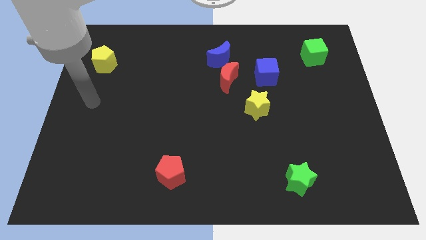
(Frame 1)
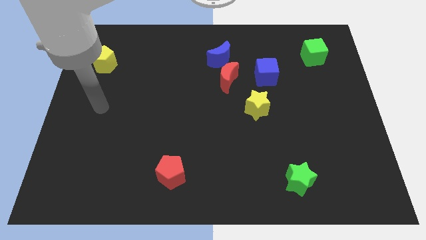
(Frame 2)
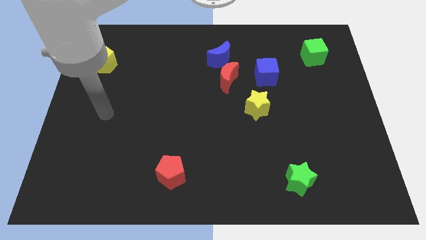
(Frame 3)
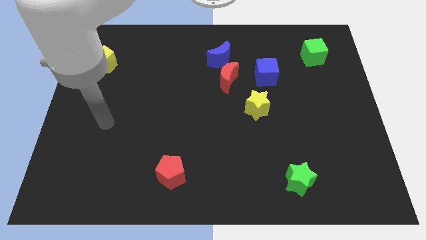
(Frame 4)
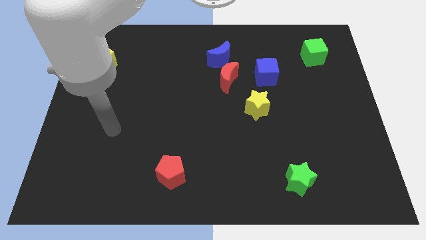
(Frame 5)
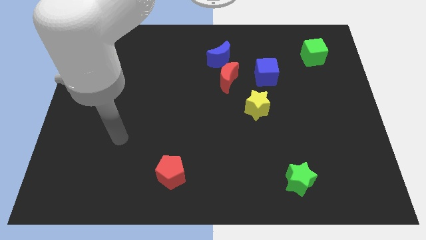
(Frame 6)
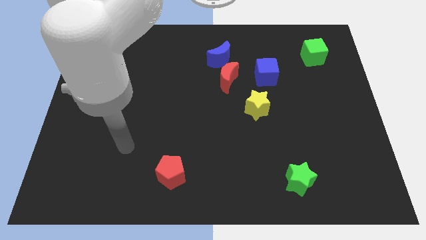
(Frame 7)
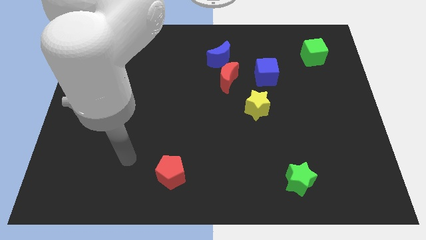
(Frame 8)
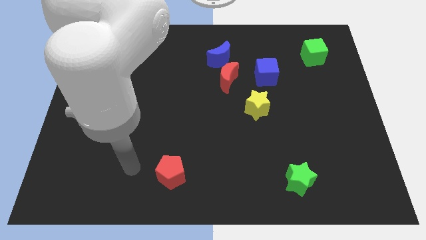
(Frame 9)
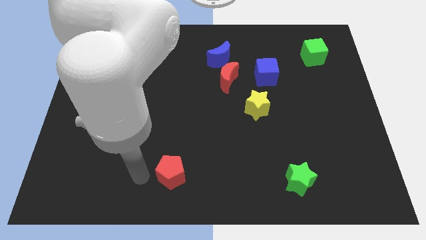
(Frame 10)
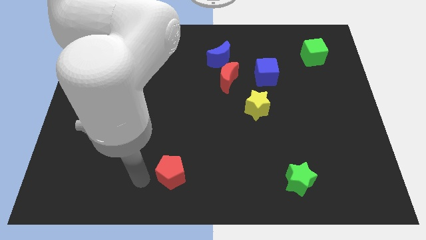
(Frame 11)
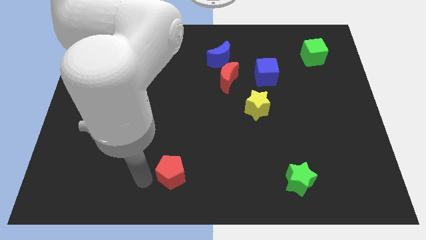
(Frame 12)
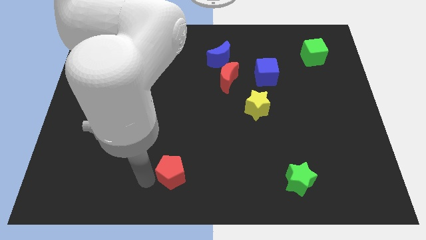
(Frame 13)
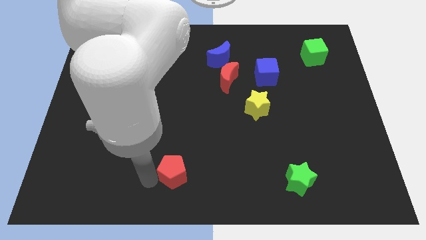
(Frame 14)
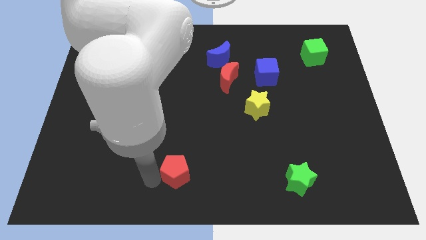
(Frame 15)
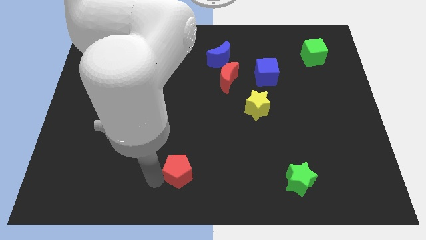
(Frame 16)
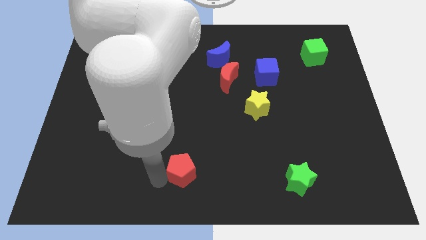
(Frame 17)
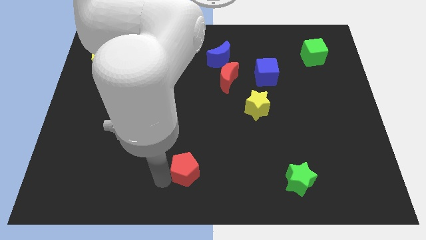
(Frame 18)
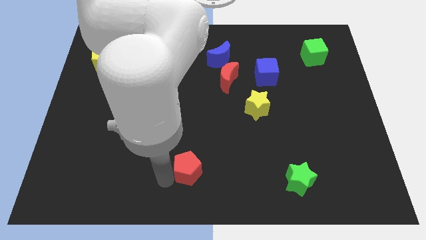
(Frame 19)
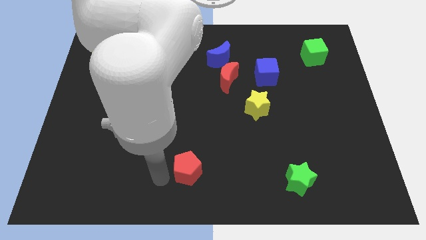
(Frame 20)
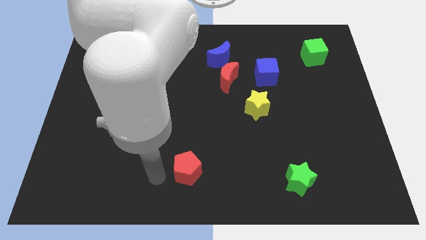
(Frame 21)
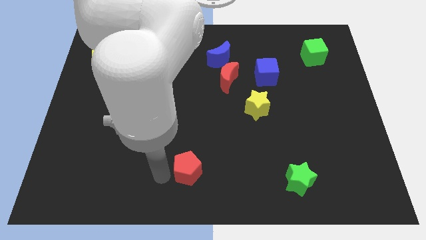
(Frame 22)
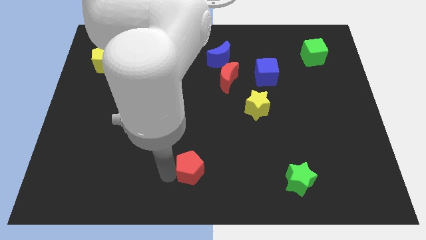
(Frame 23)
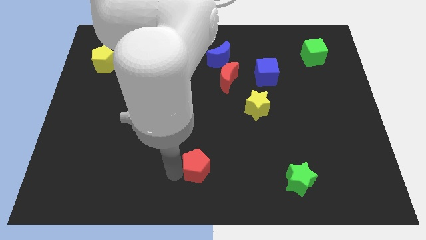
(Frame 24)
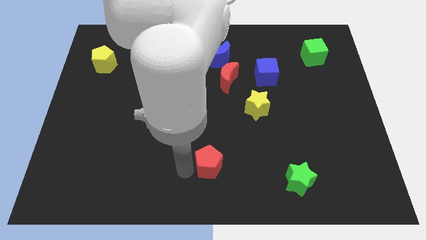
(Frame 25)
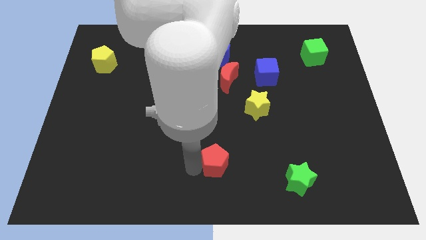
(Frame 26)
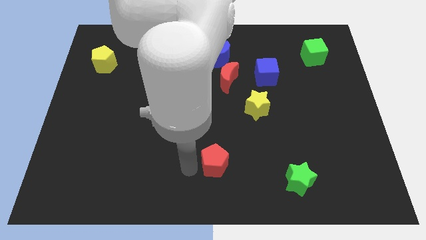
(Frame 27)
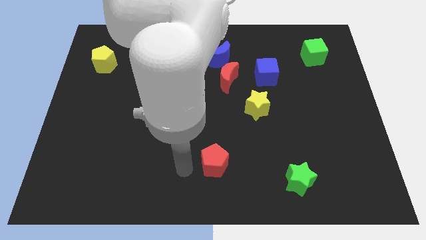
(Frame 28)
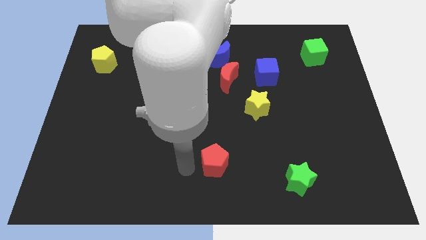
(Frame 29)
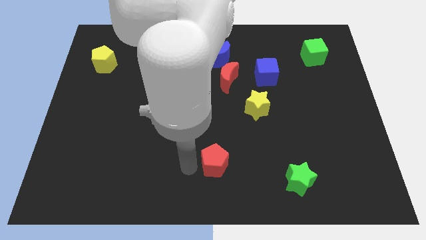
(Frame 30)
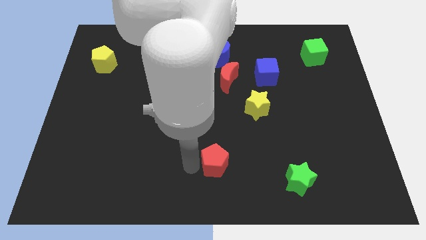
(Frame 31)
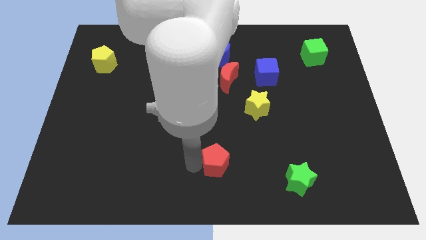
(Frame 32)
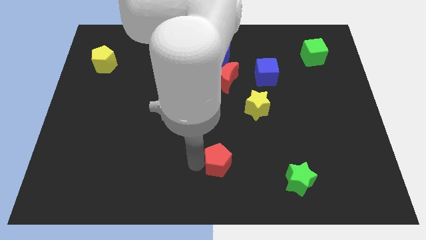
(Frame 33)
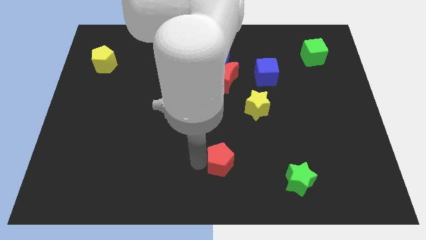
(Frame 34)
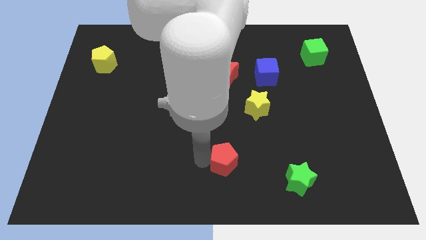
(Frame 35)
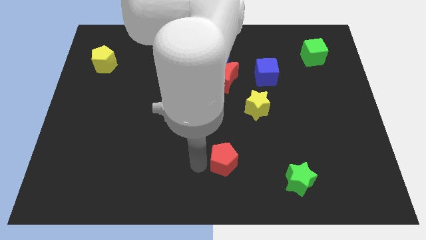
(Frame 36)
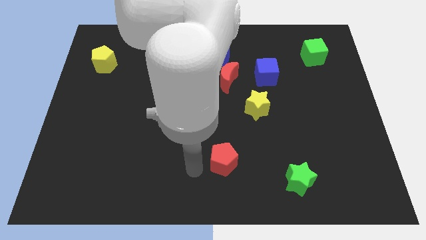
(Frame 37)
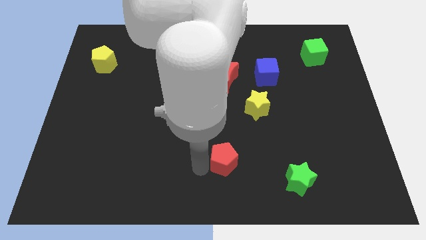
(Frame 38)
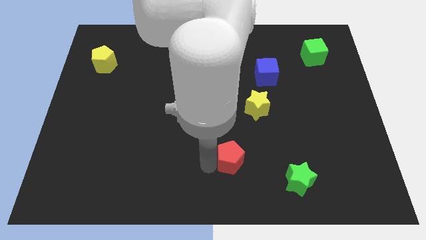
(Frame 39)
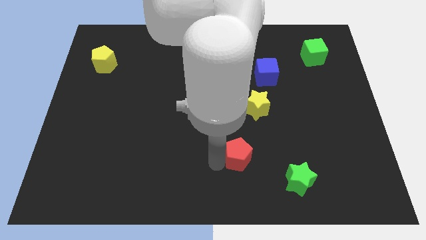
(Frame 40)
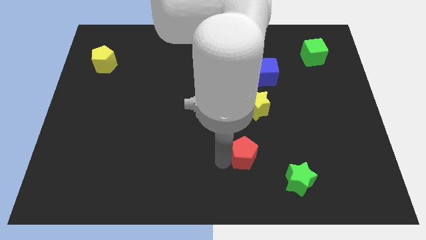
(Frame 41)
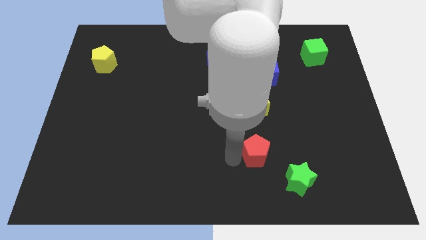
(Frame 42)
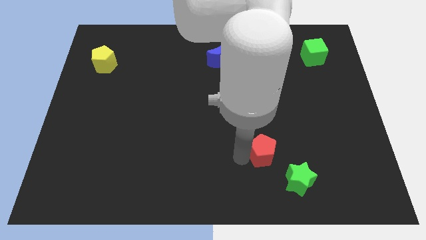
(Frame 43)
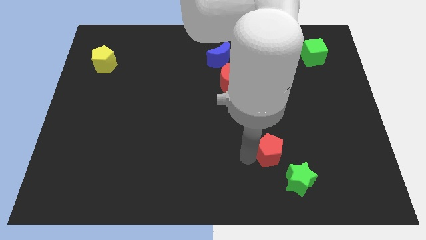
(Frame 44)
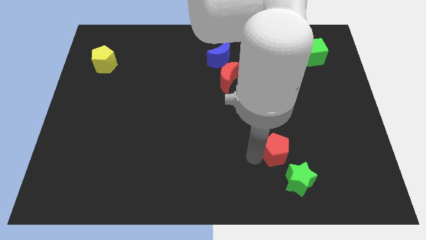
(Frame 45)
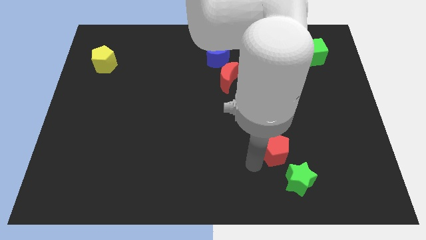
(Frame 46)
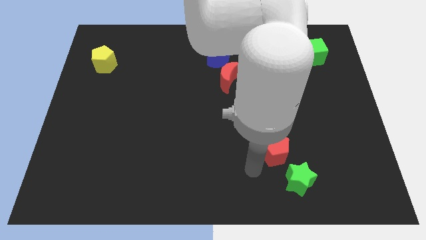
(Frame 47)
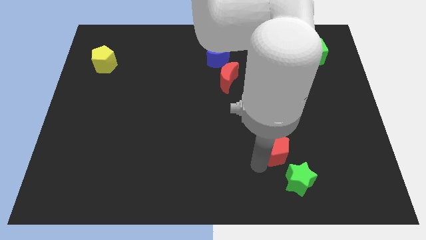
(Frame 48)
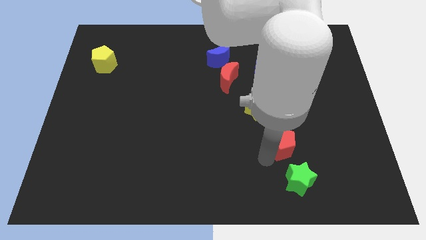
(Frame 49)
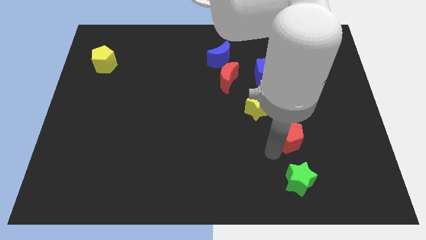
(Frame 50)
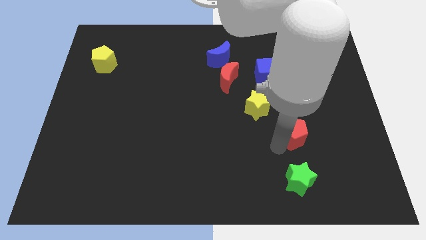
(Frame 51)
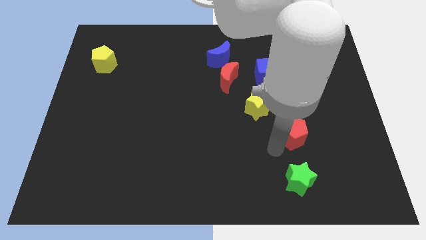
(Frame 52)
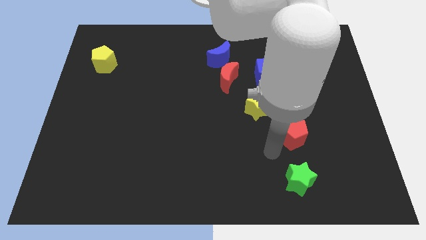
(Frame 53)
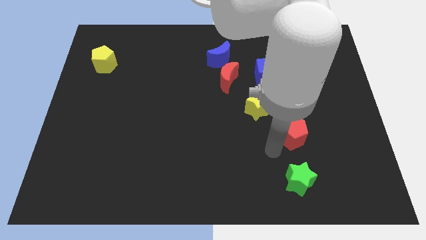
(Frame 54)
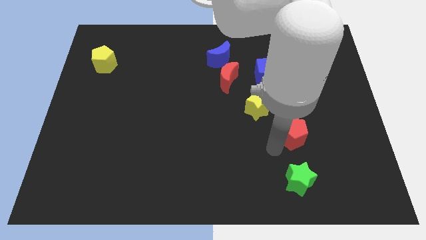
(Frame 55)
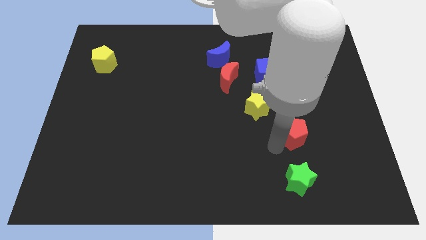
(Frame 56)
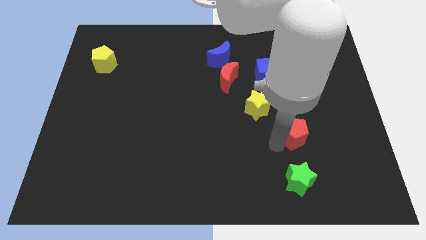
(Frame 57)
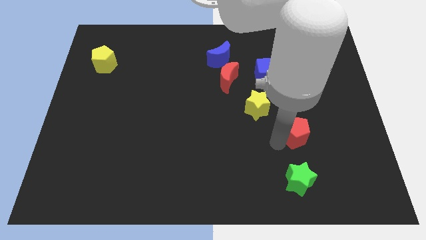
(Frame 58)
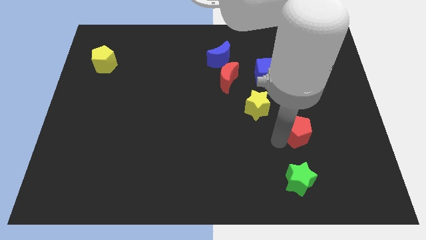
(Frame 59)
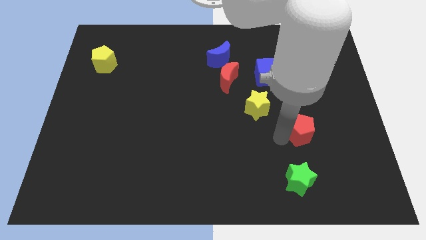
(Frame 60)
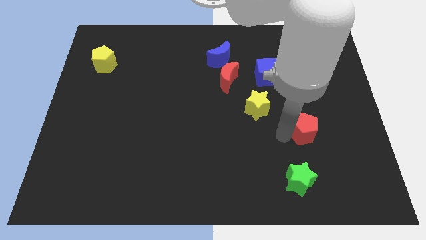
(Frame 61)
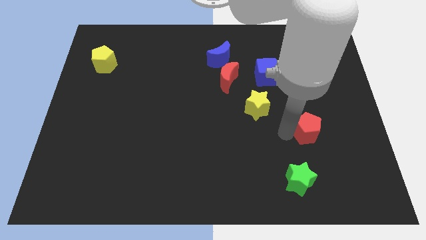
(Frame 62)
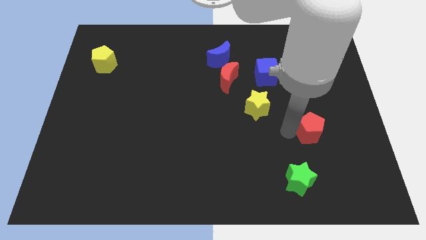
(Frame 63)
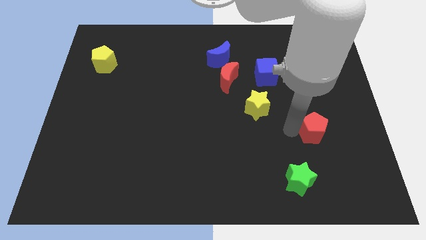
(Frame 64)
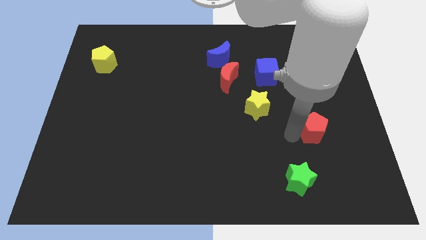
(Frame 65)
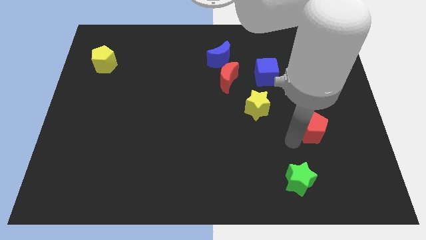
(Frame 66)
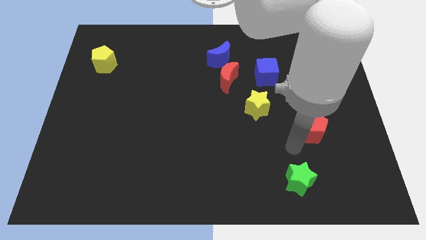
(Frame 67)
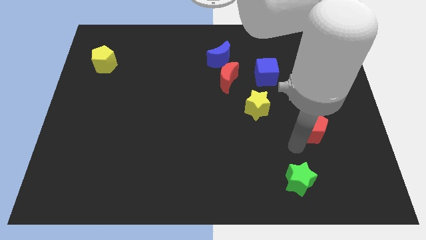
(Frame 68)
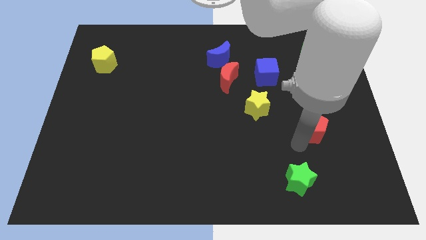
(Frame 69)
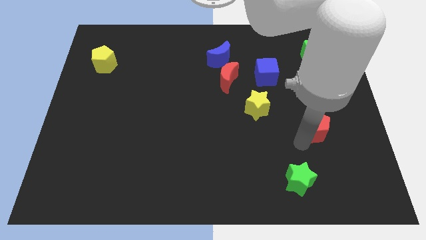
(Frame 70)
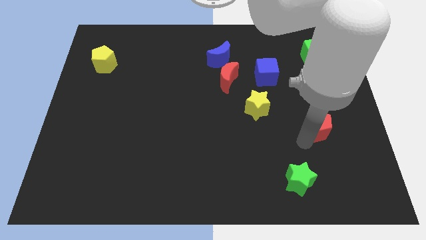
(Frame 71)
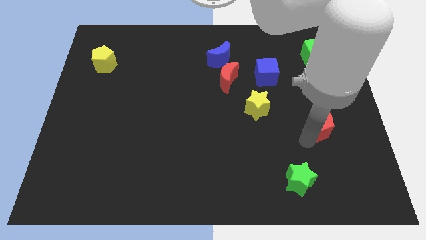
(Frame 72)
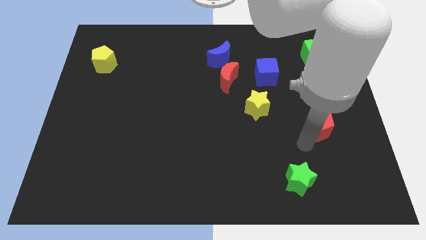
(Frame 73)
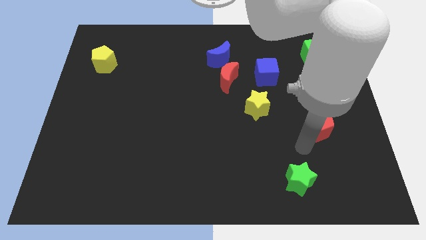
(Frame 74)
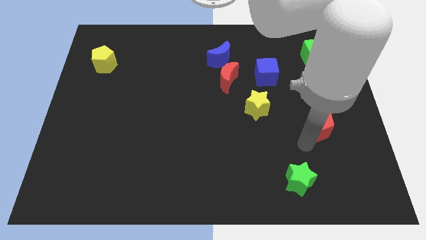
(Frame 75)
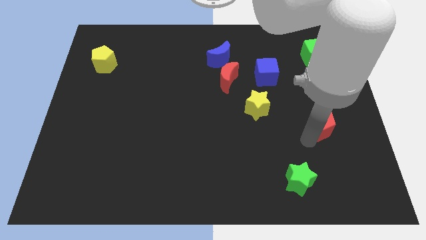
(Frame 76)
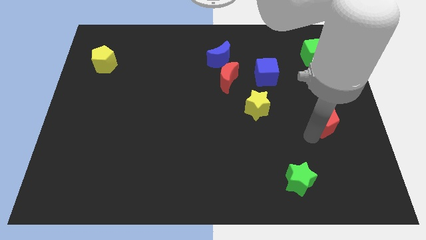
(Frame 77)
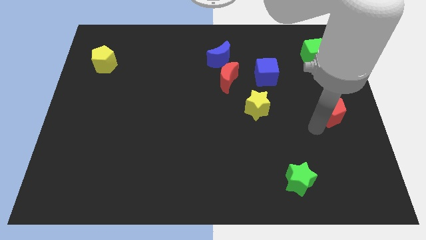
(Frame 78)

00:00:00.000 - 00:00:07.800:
move the red pentagon to the right side

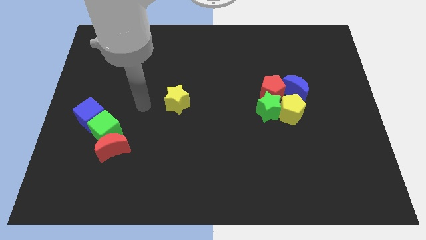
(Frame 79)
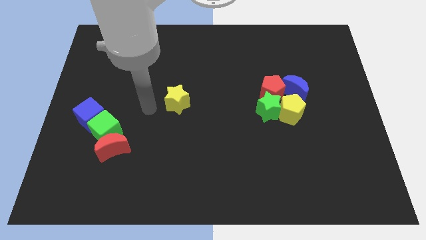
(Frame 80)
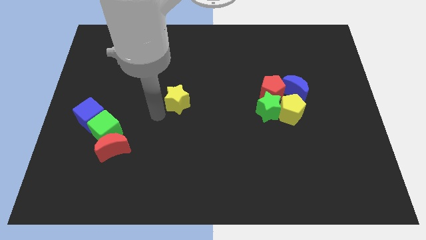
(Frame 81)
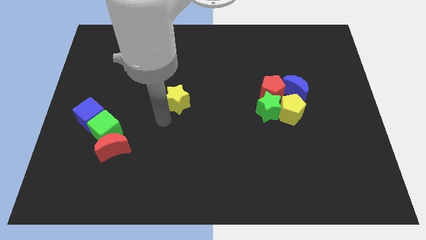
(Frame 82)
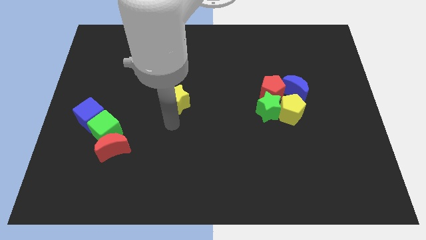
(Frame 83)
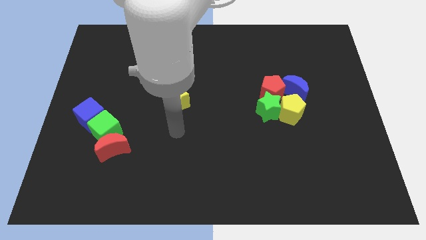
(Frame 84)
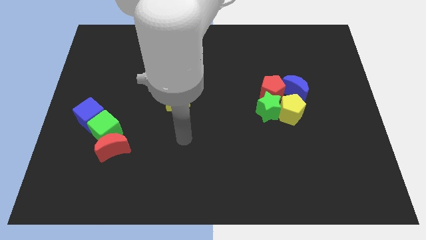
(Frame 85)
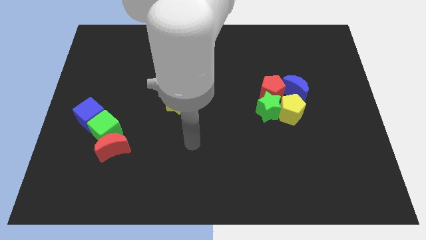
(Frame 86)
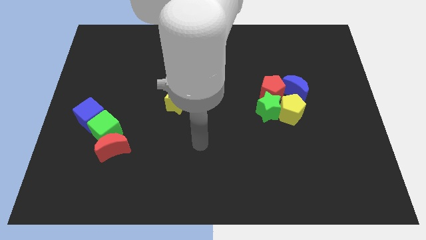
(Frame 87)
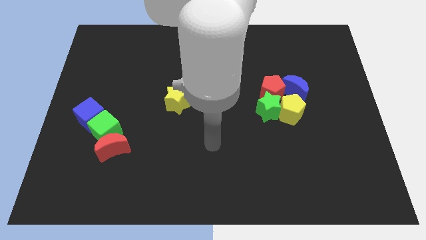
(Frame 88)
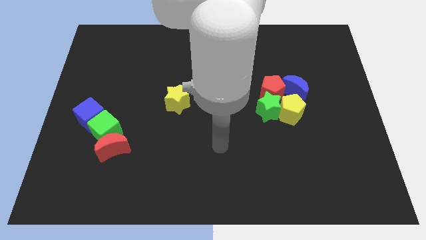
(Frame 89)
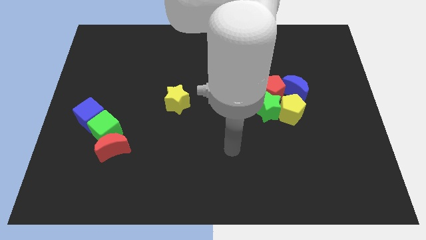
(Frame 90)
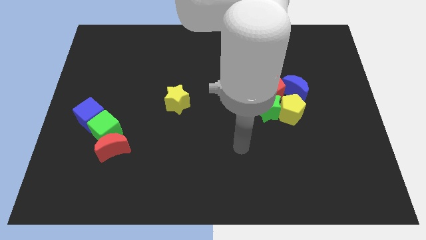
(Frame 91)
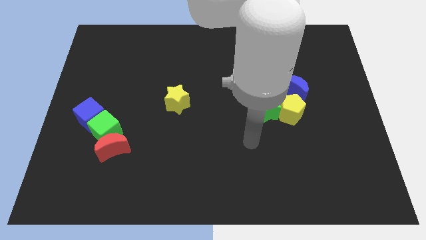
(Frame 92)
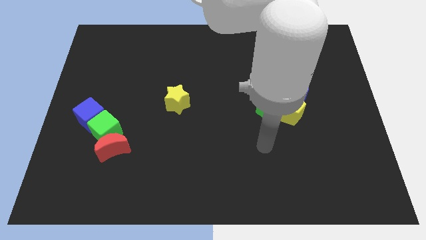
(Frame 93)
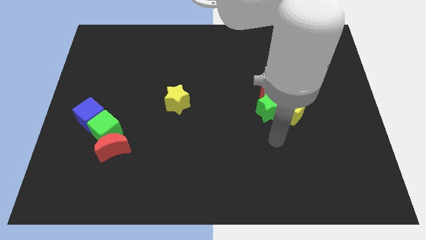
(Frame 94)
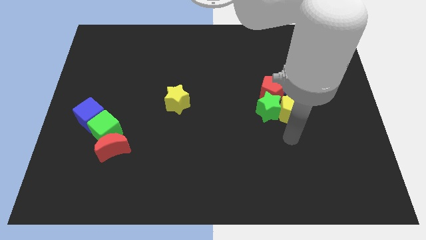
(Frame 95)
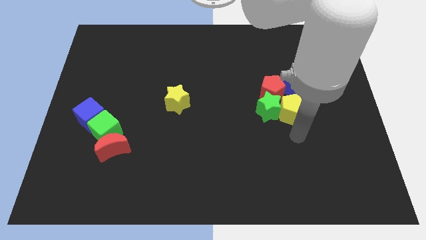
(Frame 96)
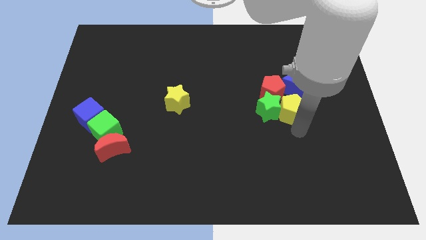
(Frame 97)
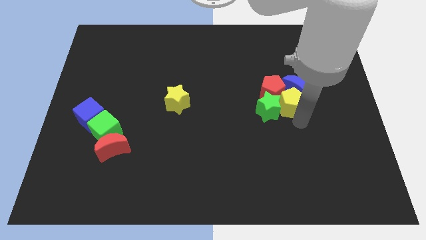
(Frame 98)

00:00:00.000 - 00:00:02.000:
slide the green star to the center of the board
